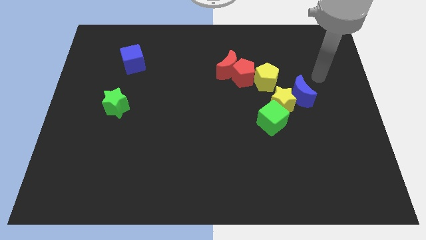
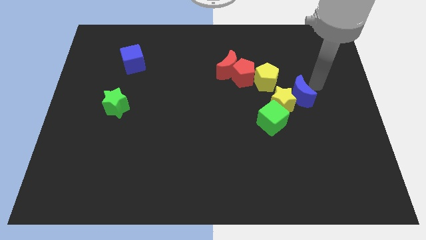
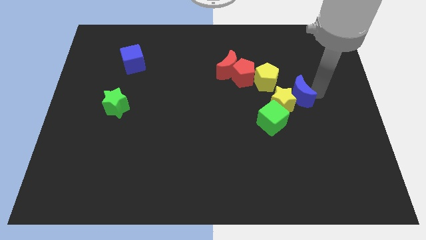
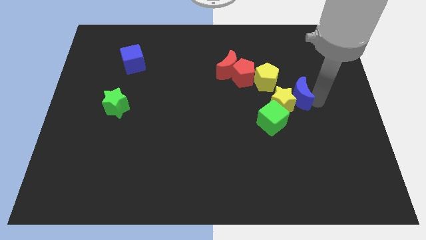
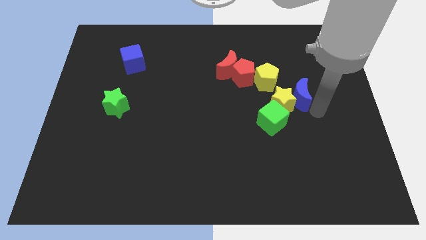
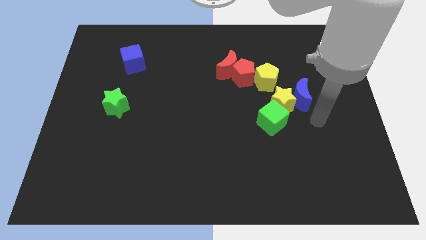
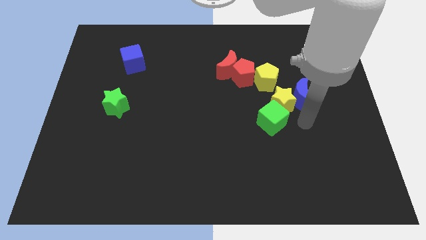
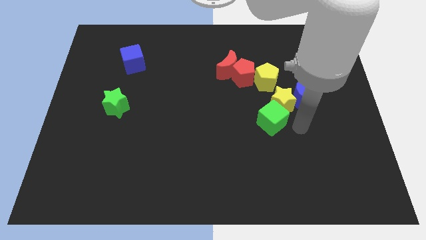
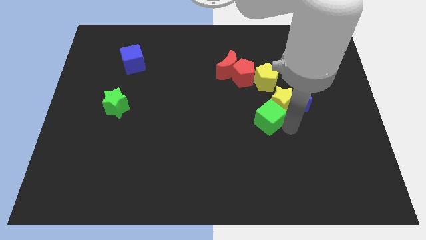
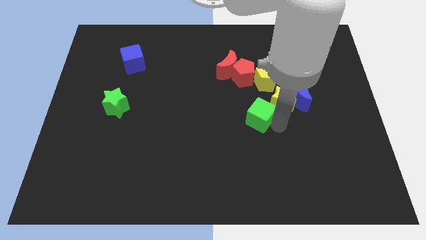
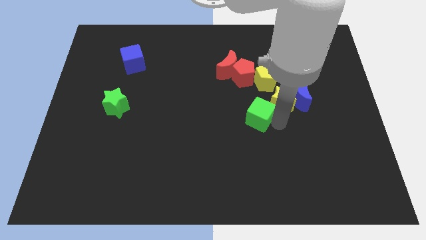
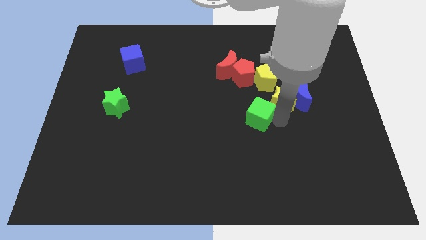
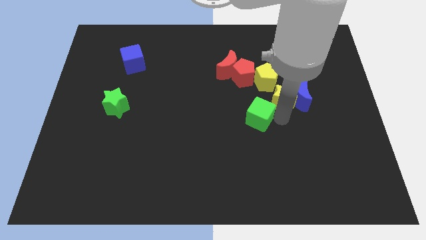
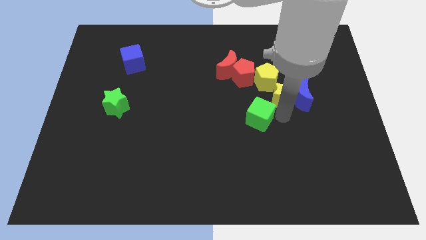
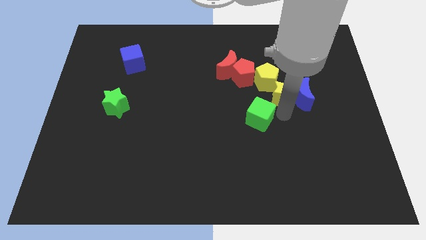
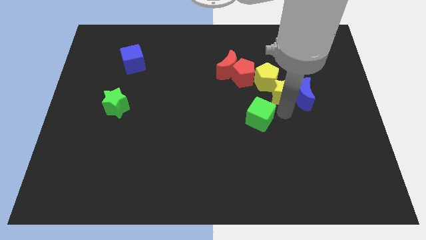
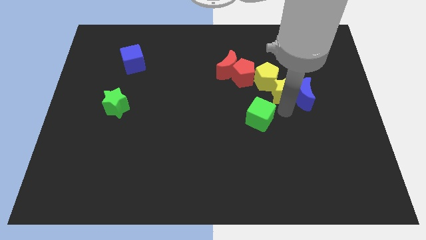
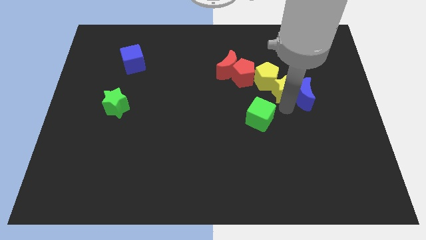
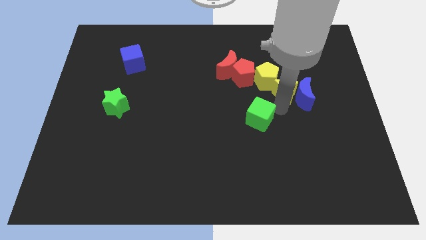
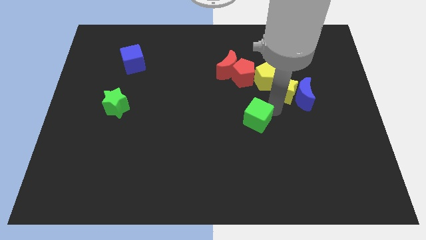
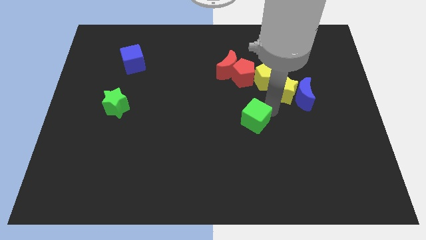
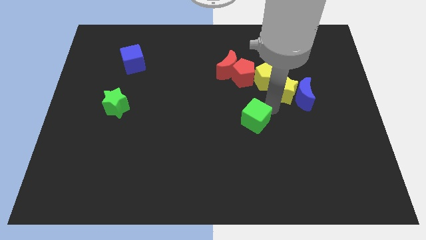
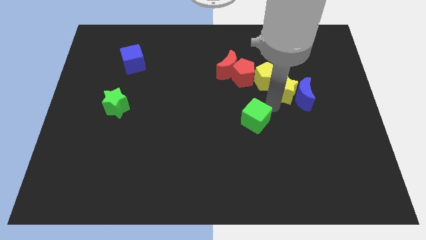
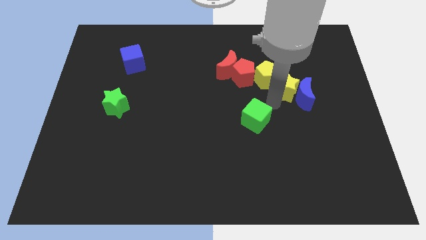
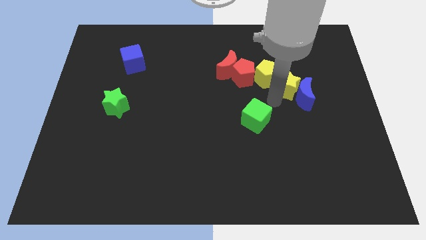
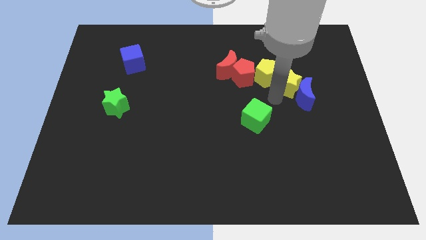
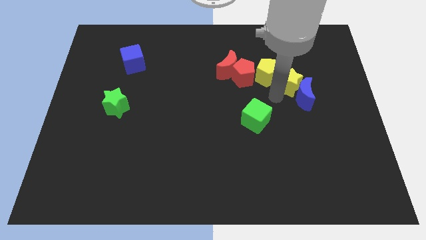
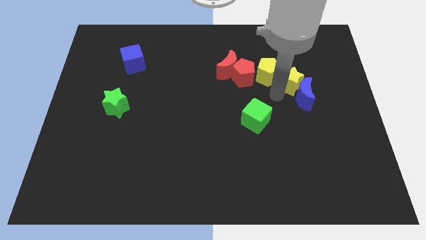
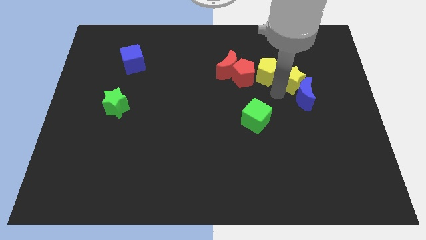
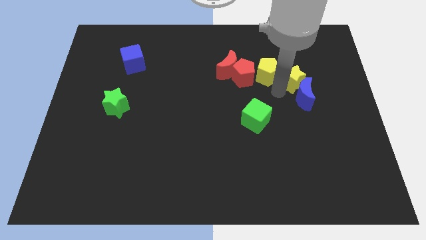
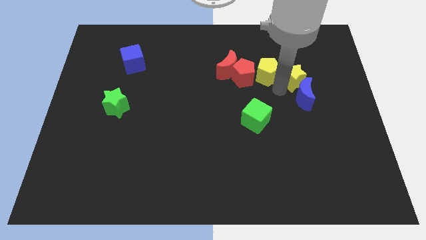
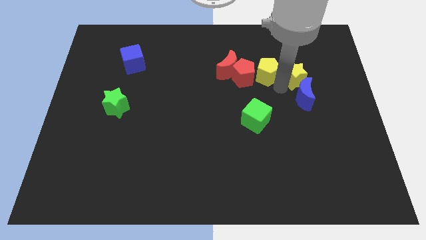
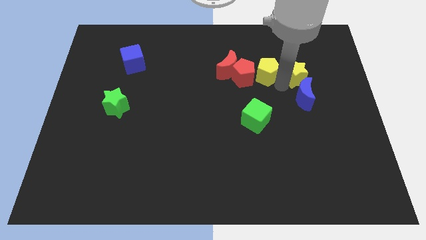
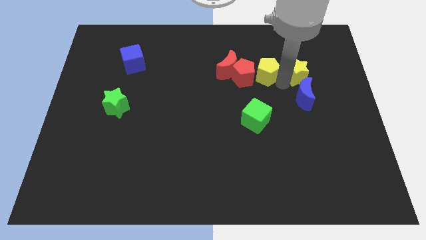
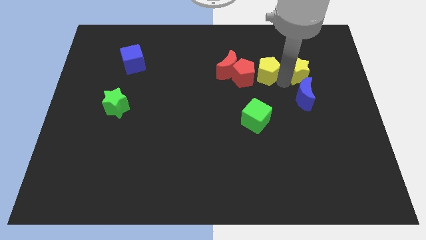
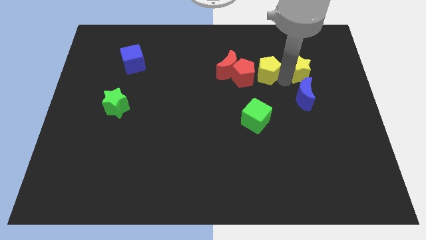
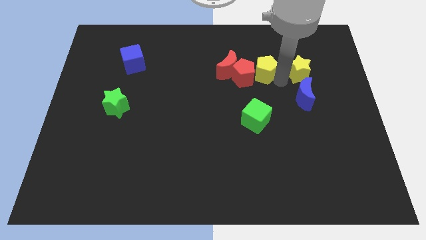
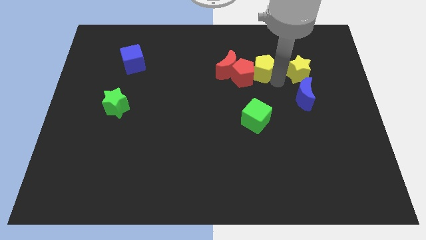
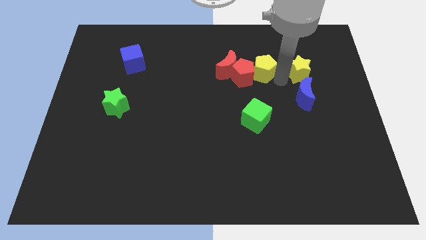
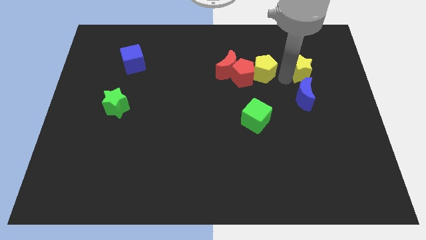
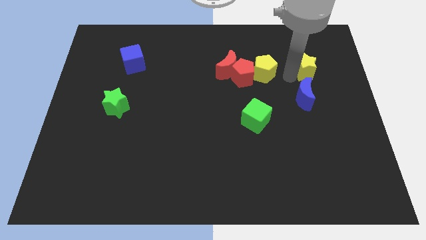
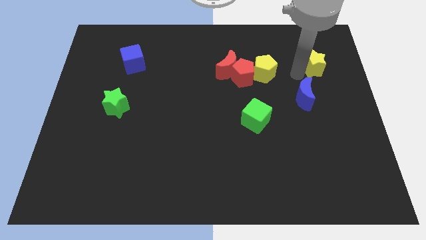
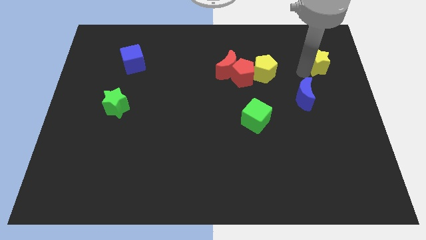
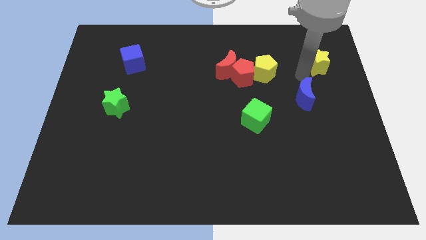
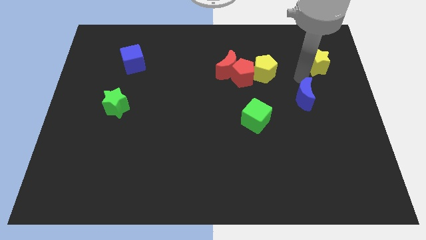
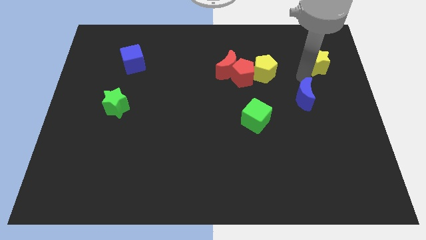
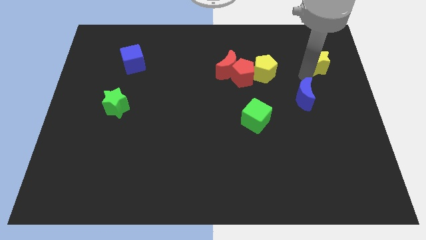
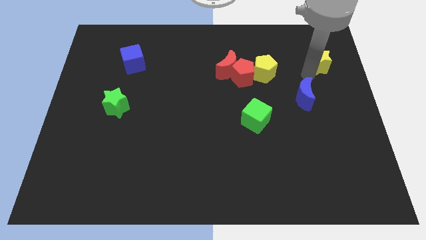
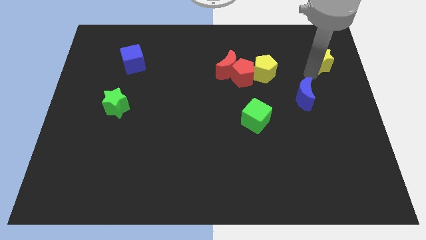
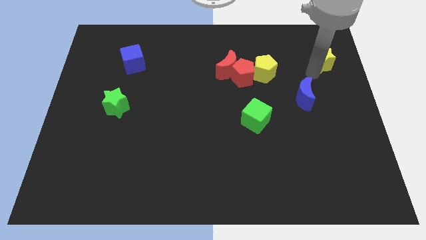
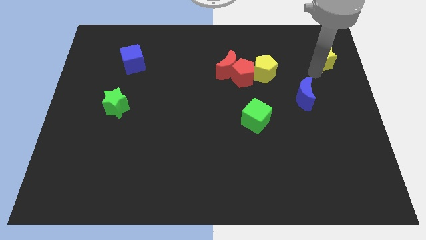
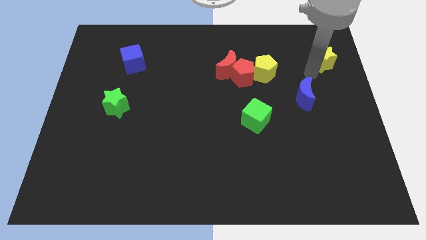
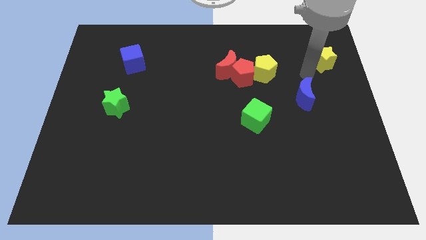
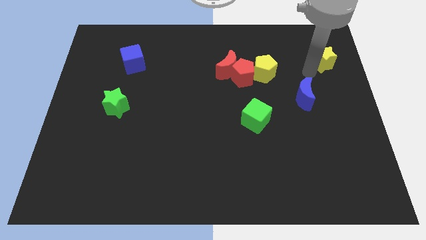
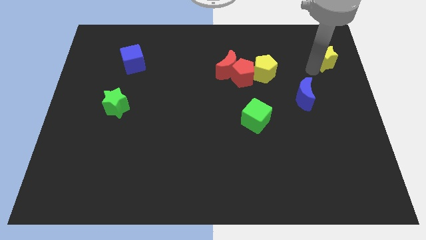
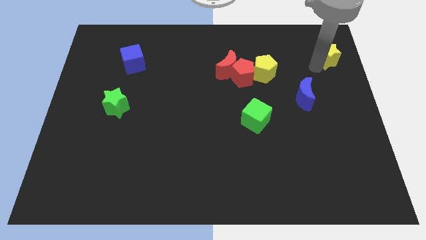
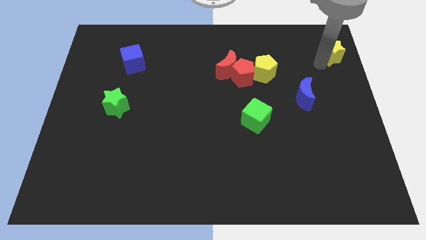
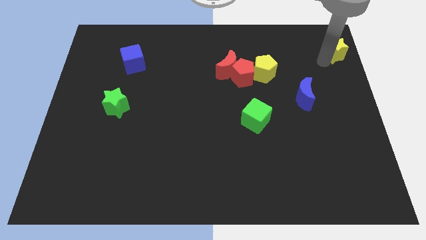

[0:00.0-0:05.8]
push the yellow star to the upper right corner
